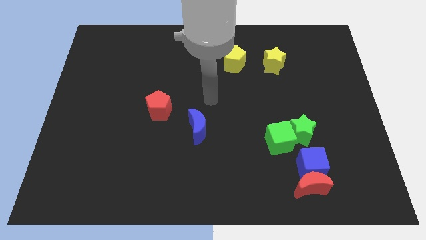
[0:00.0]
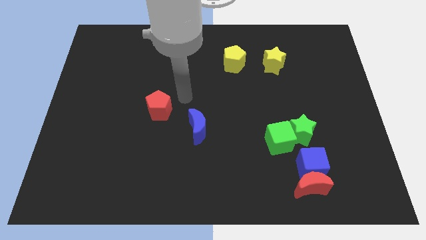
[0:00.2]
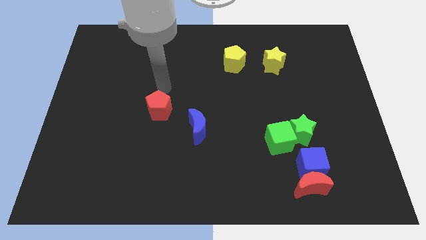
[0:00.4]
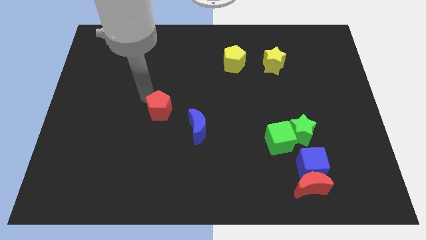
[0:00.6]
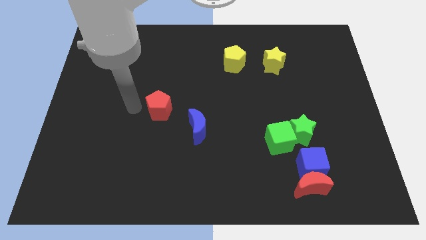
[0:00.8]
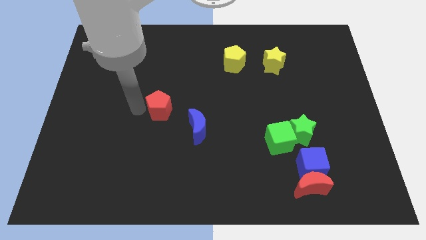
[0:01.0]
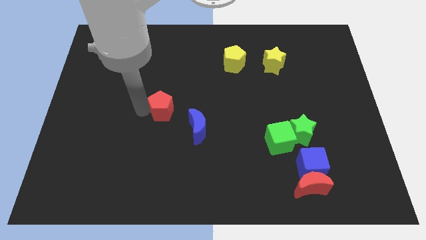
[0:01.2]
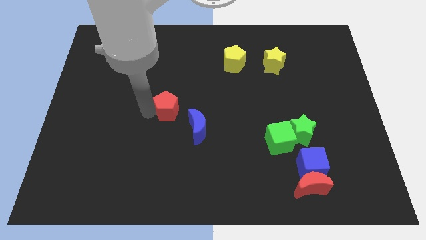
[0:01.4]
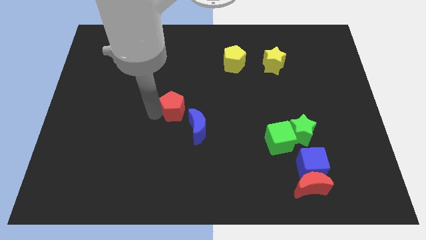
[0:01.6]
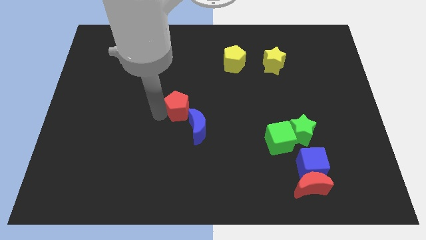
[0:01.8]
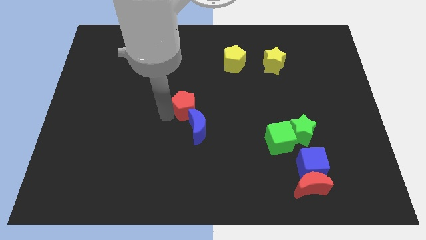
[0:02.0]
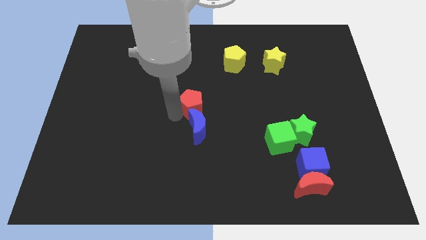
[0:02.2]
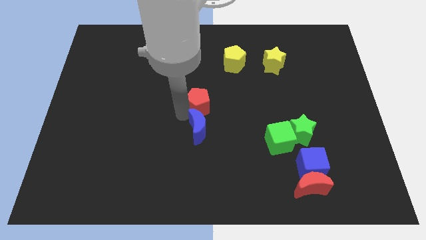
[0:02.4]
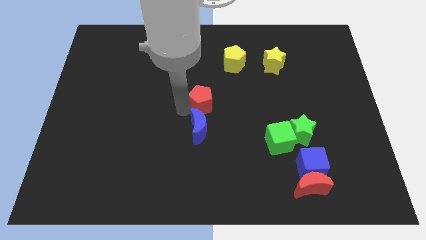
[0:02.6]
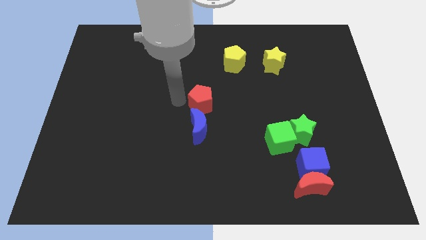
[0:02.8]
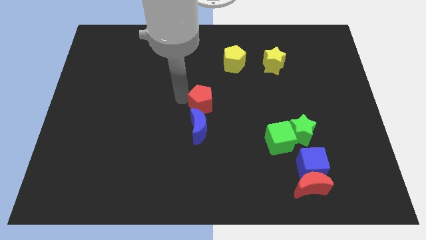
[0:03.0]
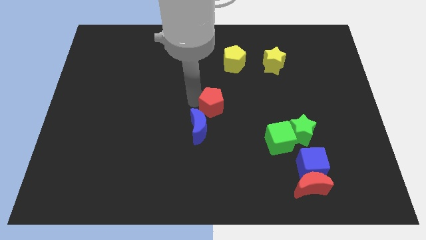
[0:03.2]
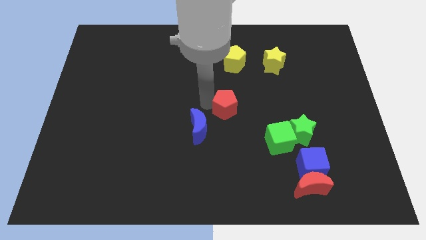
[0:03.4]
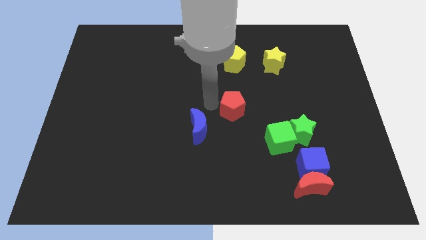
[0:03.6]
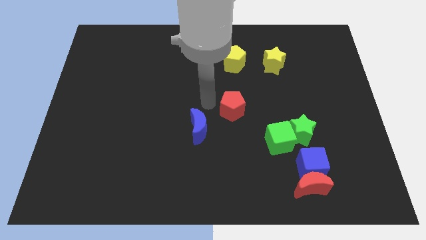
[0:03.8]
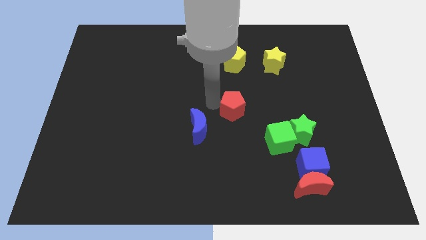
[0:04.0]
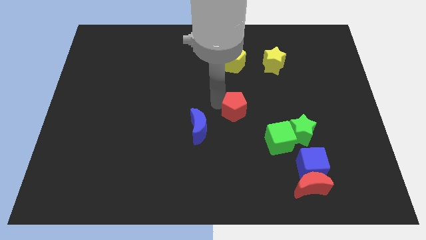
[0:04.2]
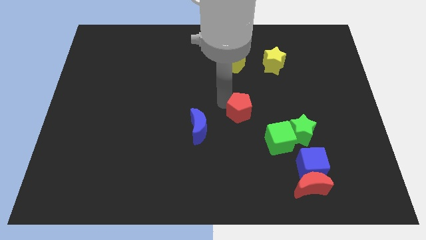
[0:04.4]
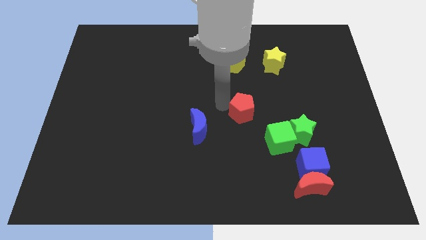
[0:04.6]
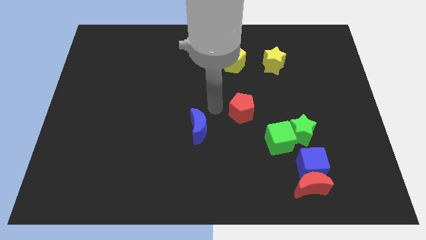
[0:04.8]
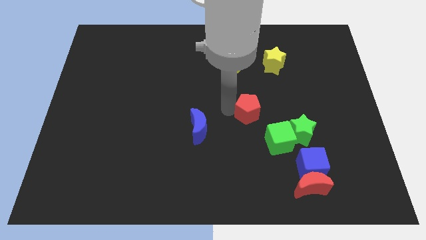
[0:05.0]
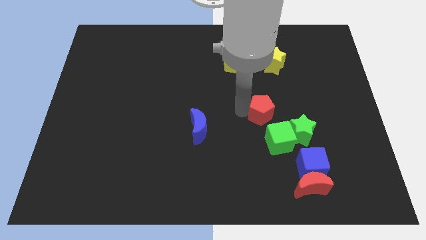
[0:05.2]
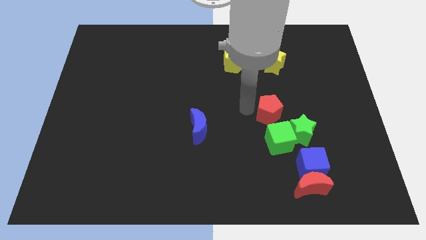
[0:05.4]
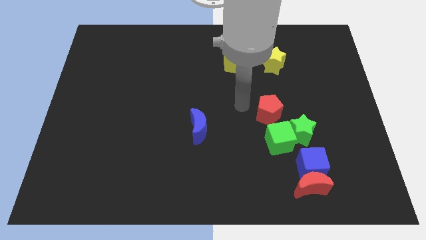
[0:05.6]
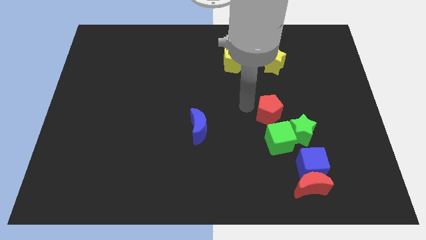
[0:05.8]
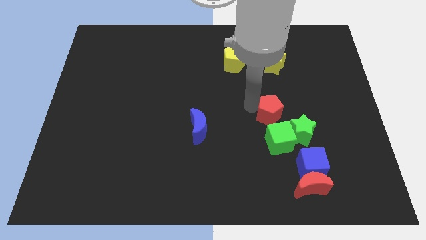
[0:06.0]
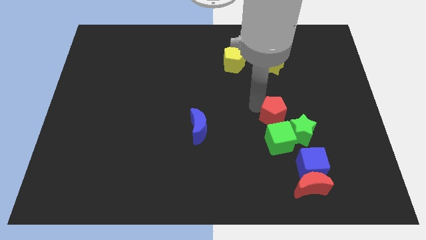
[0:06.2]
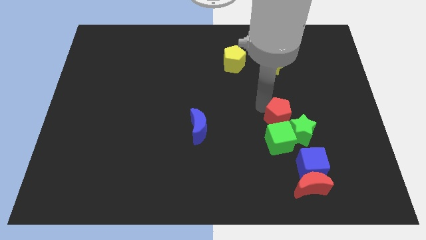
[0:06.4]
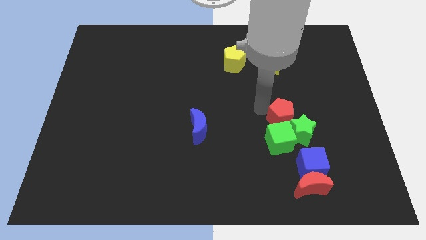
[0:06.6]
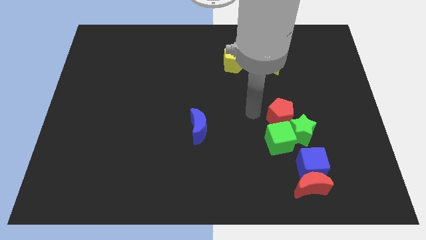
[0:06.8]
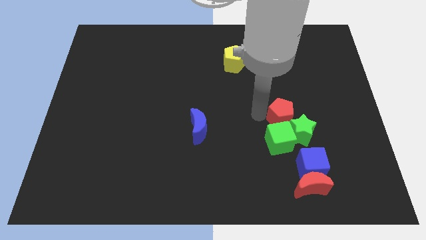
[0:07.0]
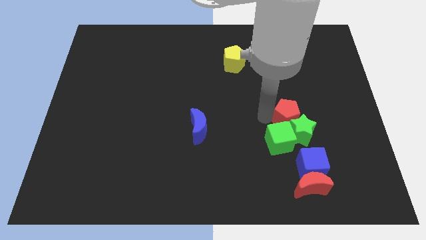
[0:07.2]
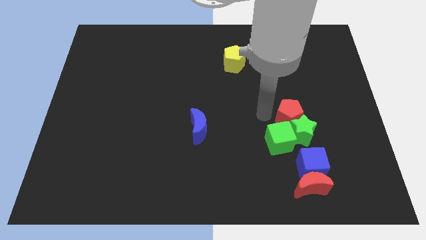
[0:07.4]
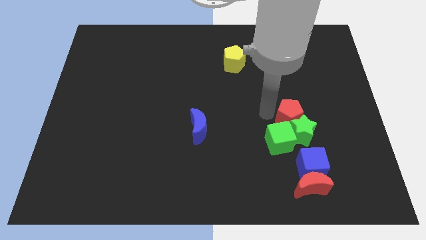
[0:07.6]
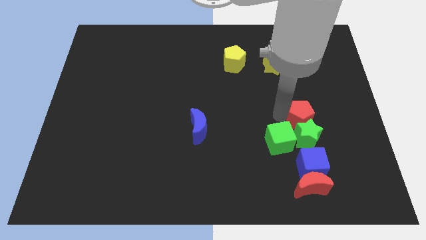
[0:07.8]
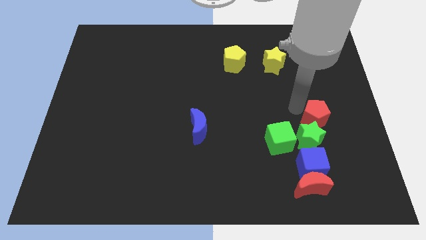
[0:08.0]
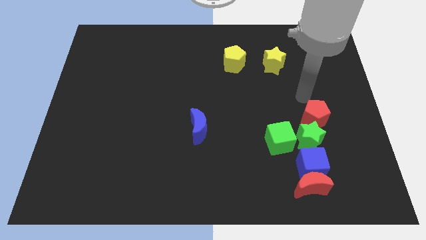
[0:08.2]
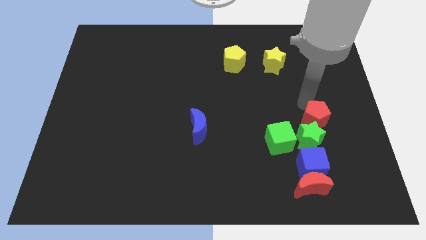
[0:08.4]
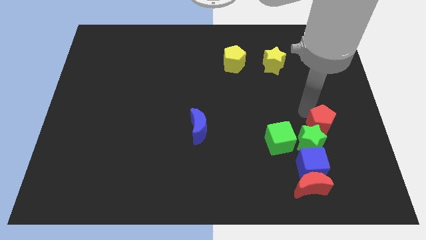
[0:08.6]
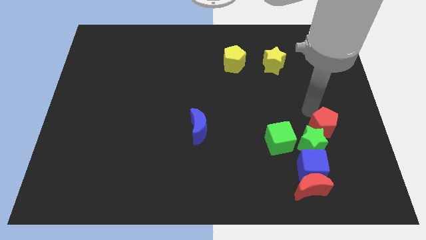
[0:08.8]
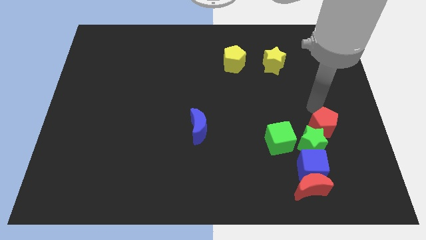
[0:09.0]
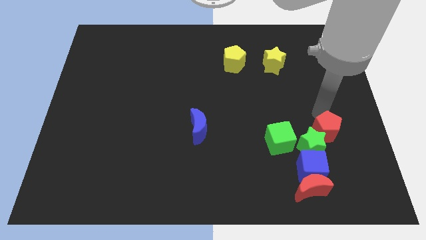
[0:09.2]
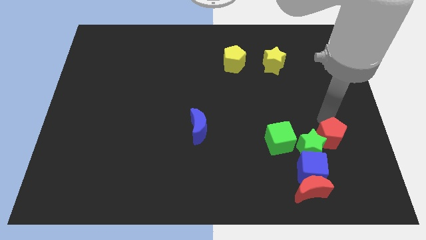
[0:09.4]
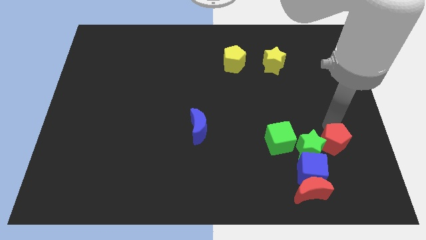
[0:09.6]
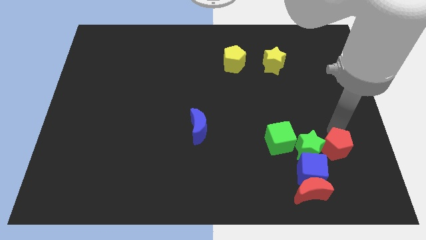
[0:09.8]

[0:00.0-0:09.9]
put the red pentagon to the bottom right side of the green star

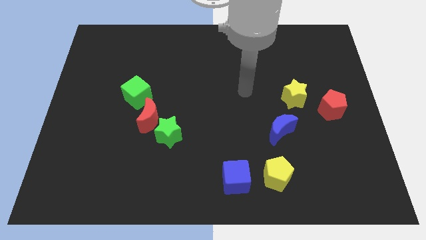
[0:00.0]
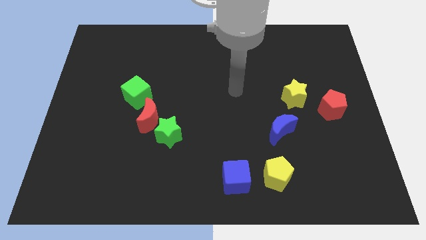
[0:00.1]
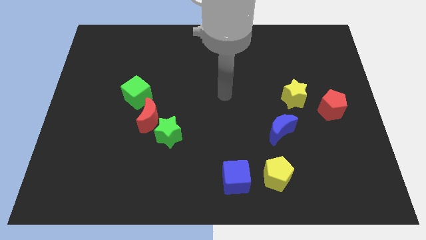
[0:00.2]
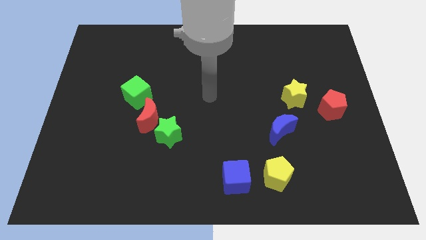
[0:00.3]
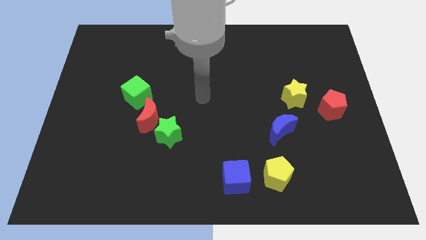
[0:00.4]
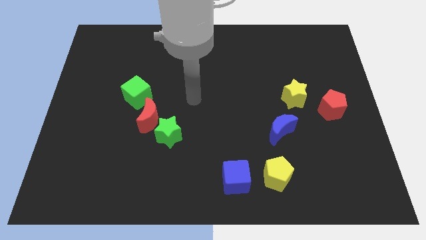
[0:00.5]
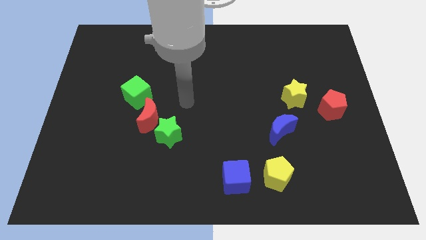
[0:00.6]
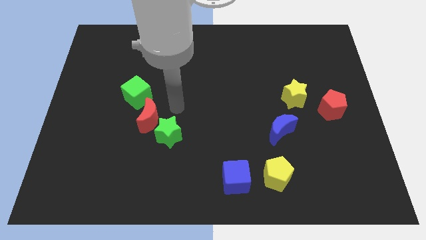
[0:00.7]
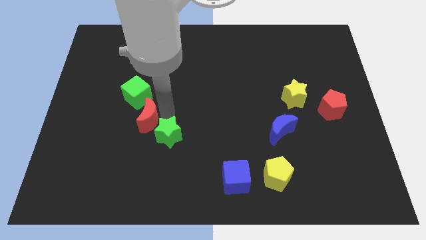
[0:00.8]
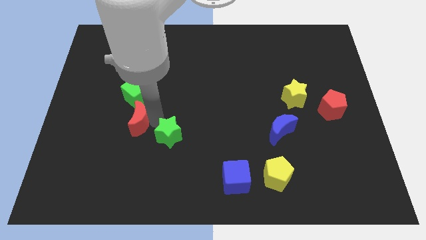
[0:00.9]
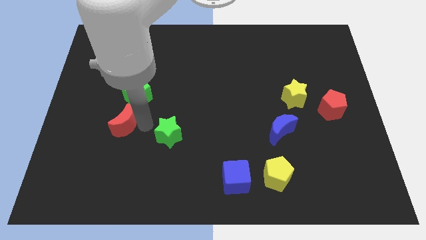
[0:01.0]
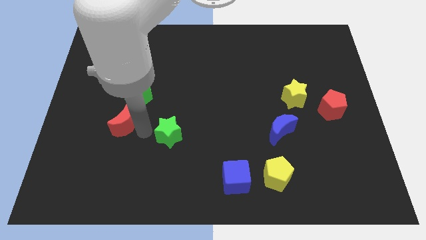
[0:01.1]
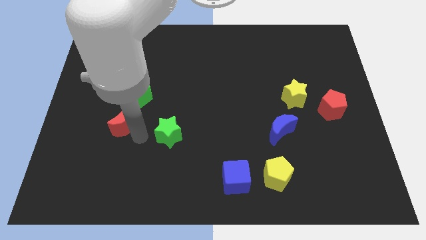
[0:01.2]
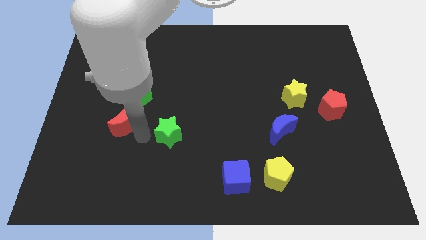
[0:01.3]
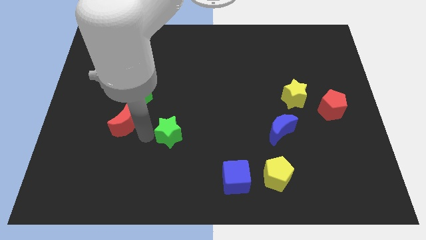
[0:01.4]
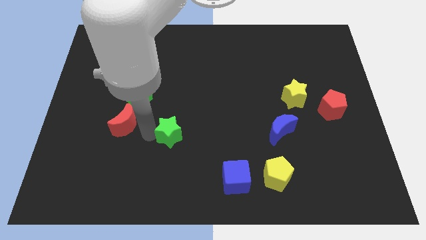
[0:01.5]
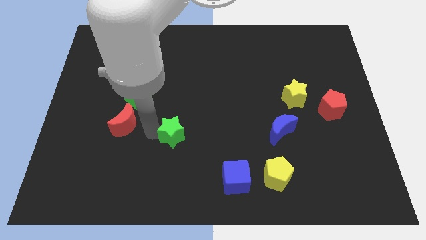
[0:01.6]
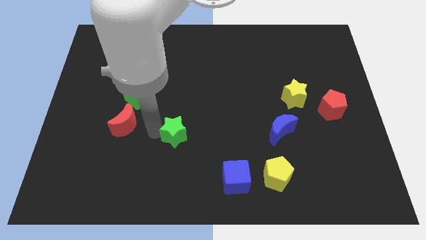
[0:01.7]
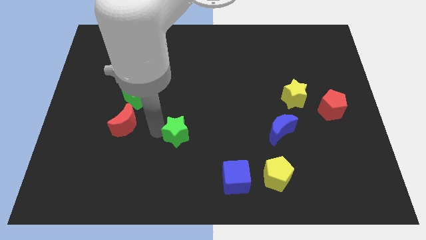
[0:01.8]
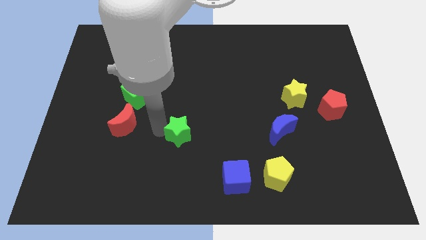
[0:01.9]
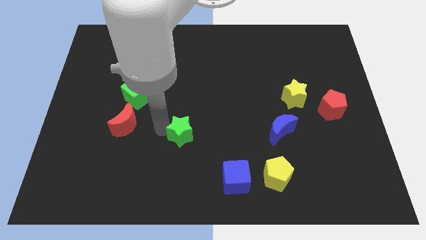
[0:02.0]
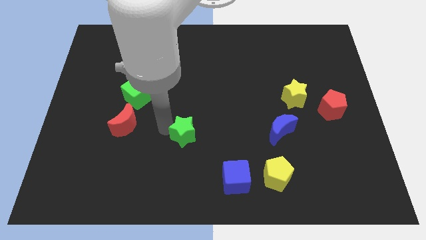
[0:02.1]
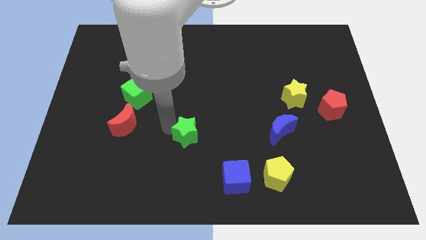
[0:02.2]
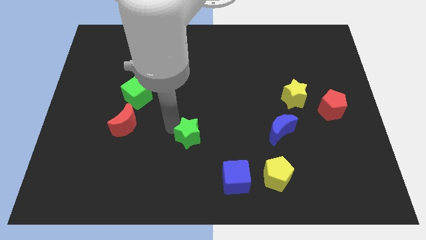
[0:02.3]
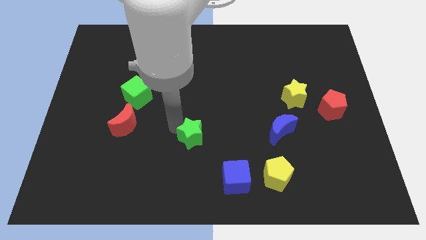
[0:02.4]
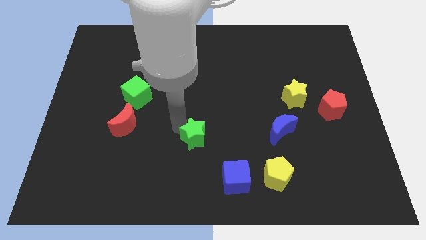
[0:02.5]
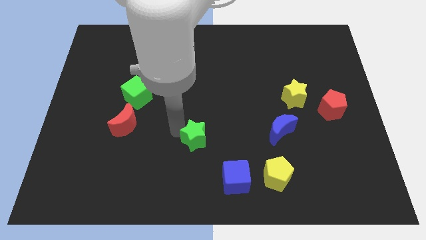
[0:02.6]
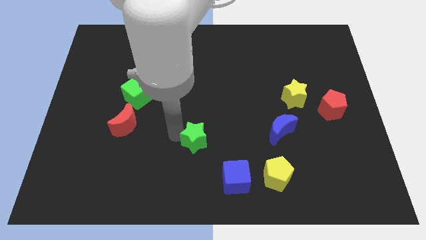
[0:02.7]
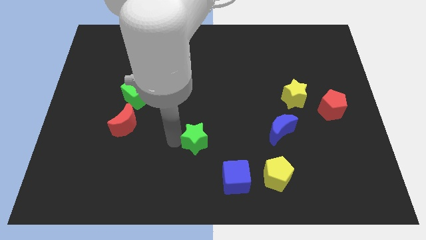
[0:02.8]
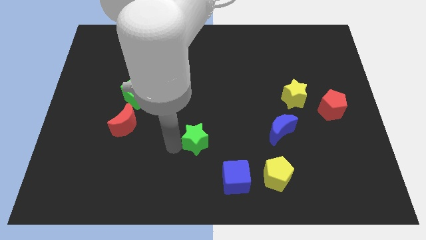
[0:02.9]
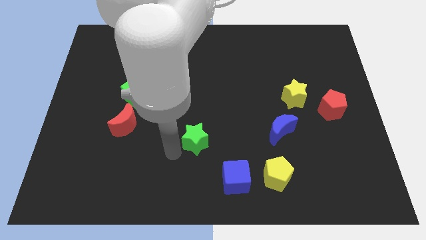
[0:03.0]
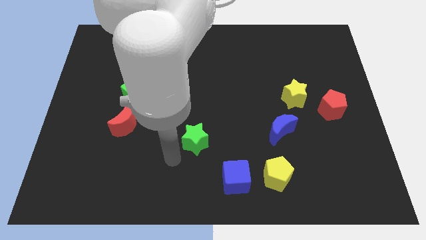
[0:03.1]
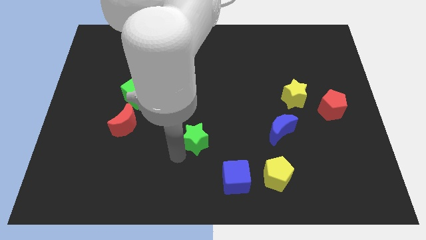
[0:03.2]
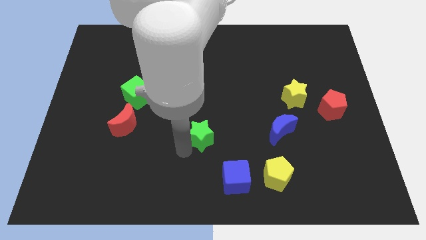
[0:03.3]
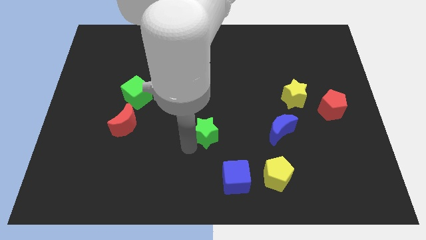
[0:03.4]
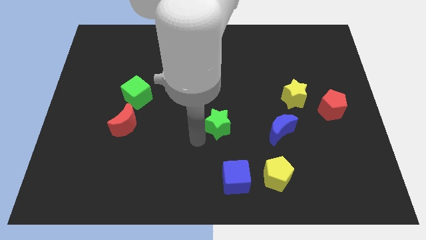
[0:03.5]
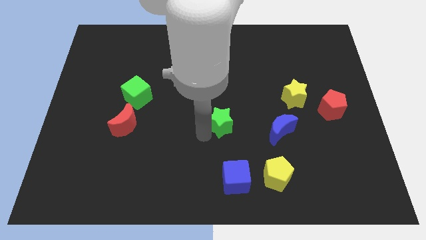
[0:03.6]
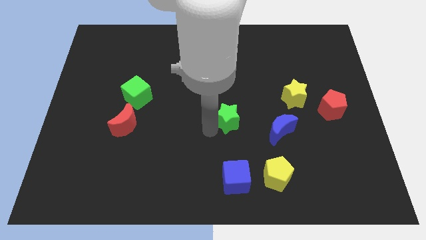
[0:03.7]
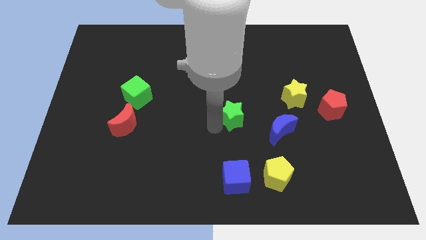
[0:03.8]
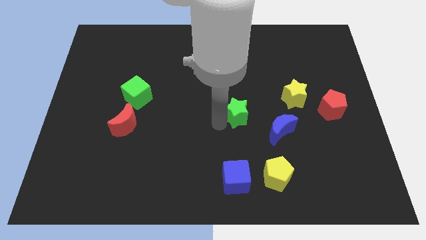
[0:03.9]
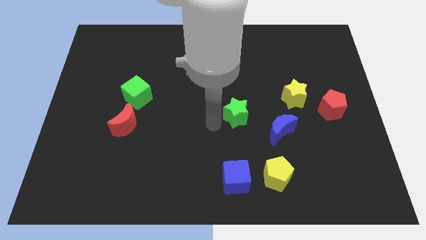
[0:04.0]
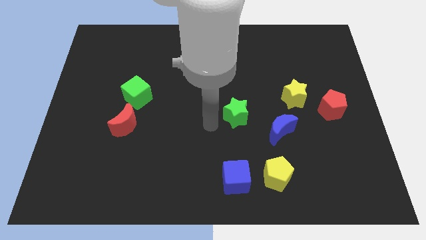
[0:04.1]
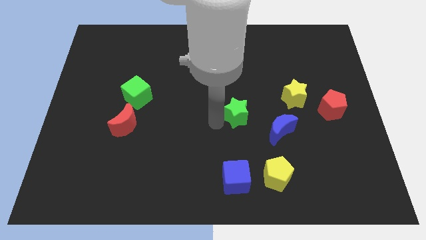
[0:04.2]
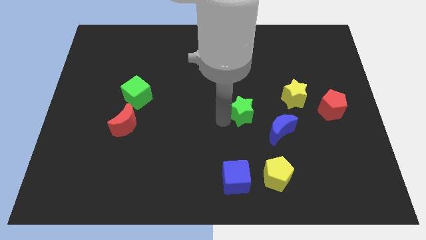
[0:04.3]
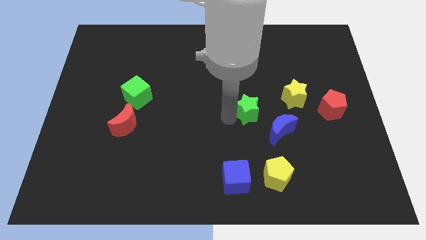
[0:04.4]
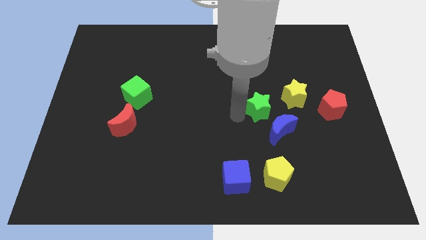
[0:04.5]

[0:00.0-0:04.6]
push the green star to the top of the blue moon
